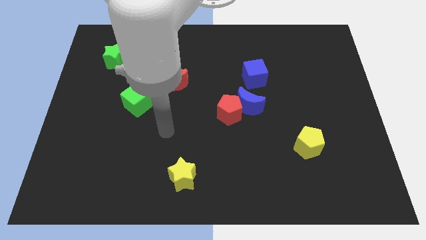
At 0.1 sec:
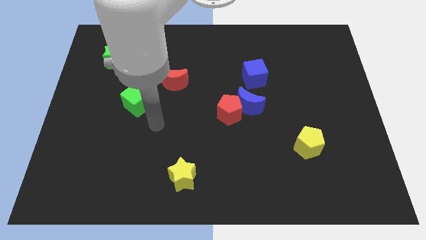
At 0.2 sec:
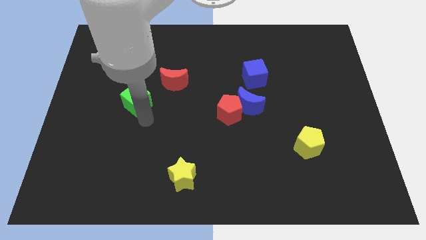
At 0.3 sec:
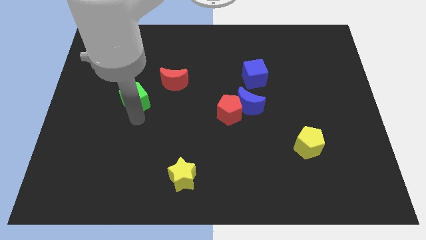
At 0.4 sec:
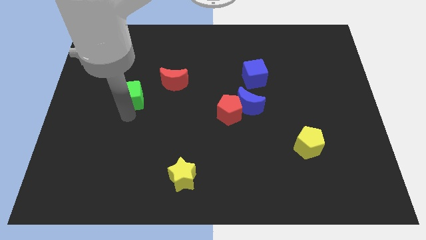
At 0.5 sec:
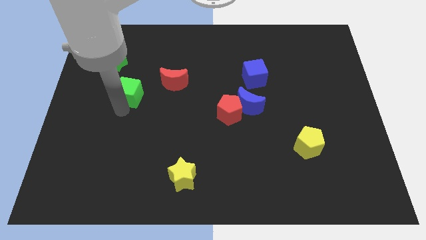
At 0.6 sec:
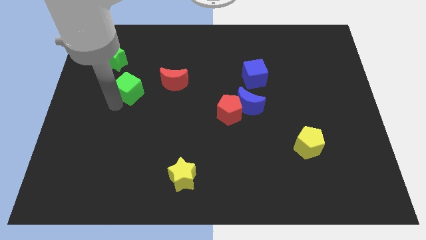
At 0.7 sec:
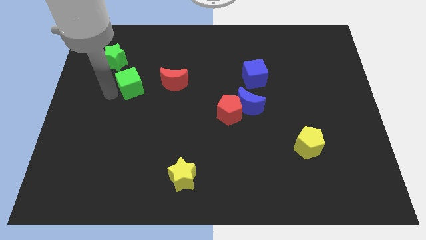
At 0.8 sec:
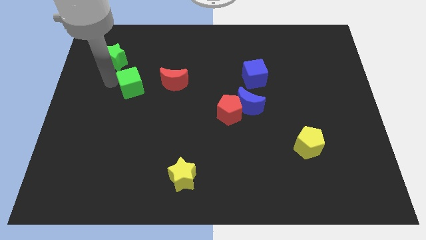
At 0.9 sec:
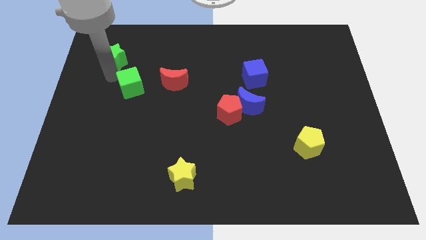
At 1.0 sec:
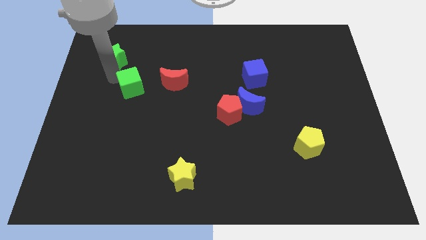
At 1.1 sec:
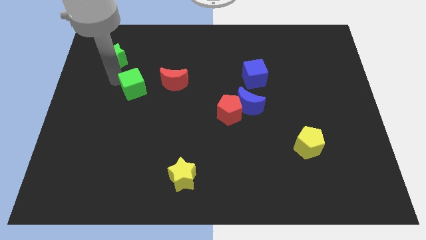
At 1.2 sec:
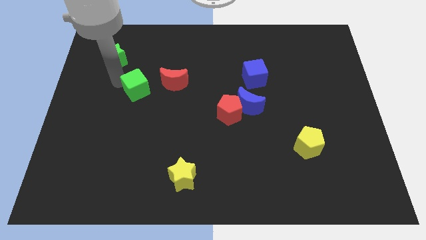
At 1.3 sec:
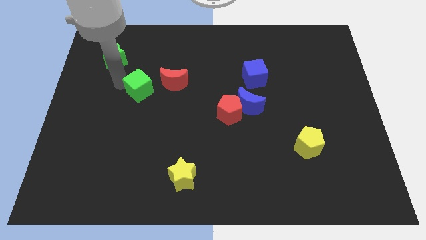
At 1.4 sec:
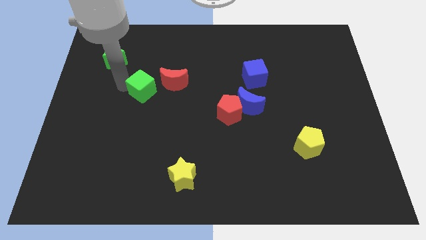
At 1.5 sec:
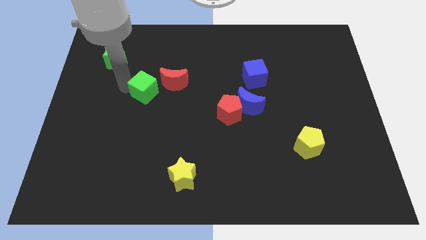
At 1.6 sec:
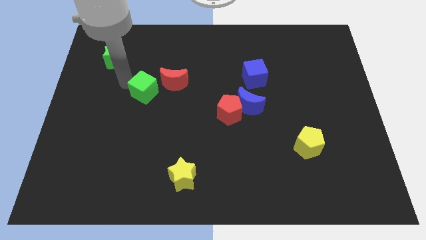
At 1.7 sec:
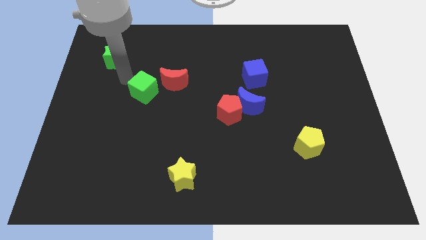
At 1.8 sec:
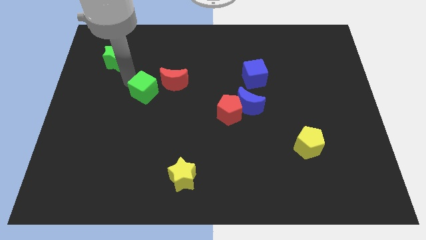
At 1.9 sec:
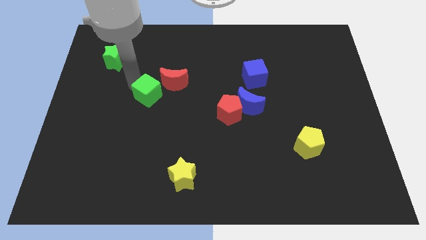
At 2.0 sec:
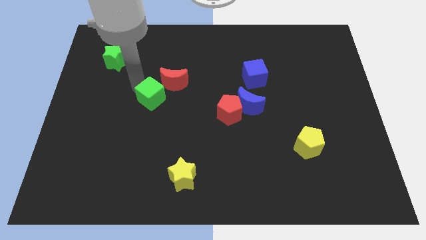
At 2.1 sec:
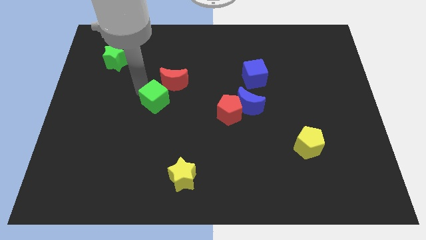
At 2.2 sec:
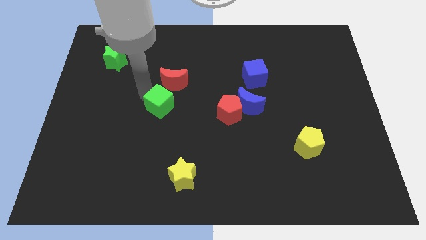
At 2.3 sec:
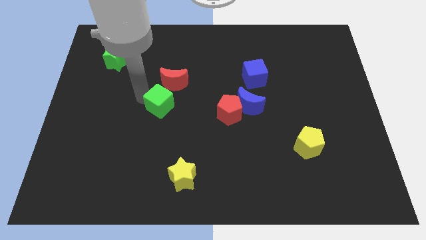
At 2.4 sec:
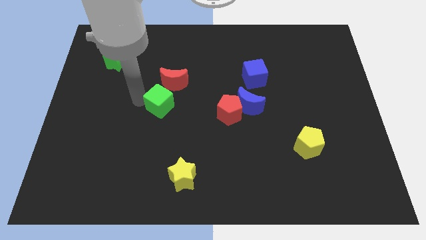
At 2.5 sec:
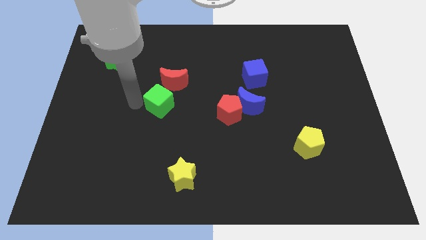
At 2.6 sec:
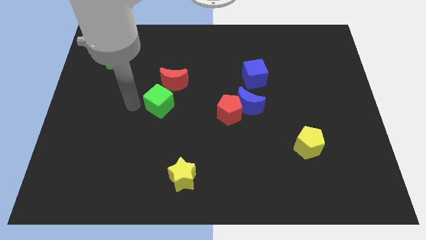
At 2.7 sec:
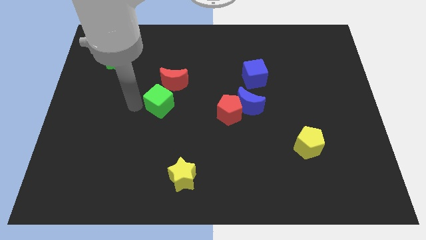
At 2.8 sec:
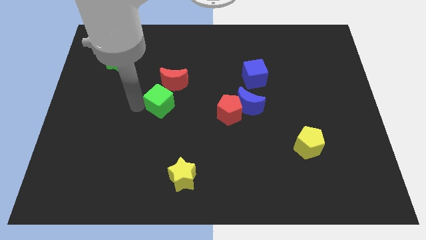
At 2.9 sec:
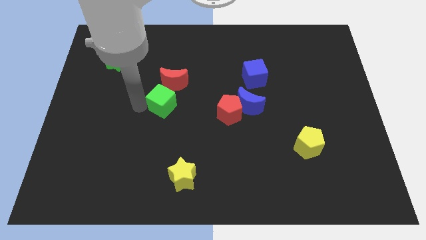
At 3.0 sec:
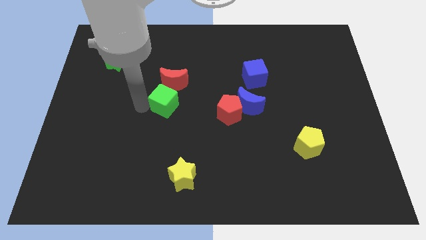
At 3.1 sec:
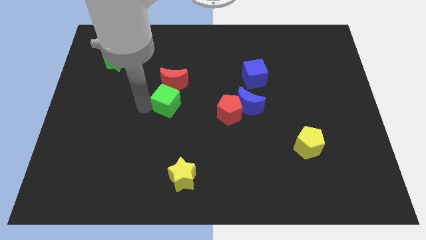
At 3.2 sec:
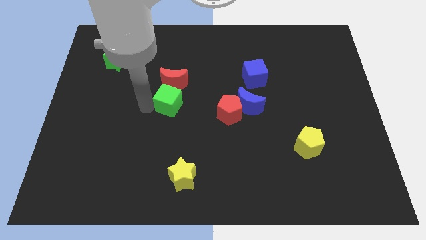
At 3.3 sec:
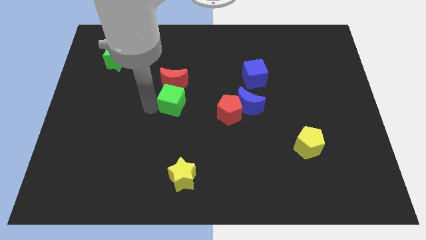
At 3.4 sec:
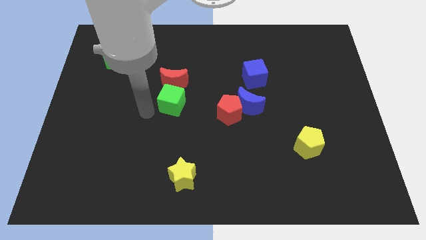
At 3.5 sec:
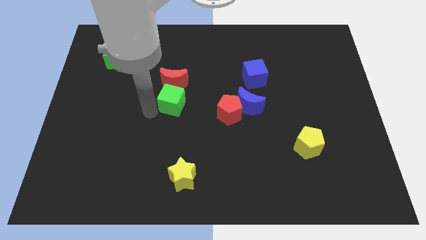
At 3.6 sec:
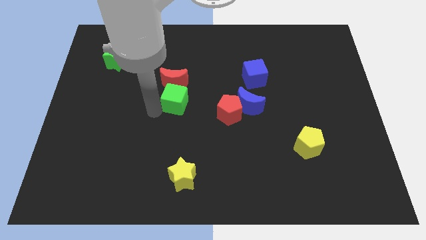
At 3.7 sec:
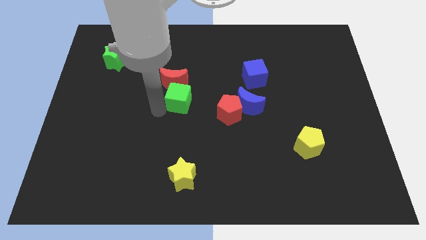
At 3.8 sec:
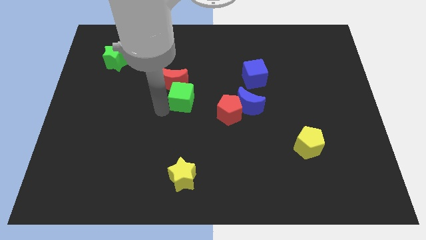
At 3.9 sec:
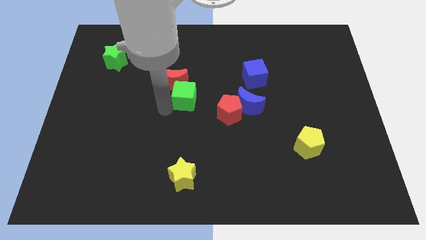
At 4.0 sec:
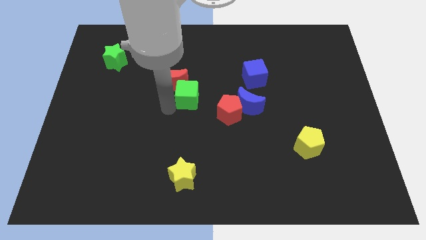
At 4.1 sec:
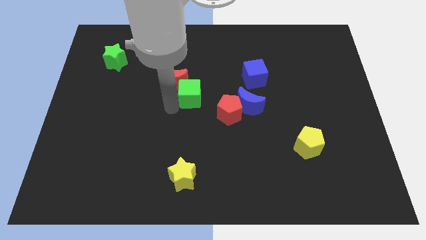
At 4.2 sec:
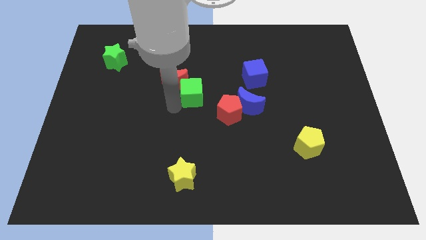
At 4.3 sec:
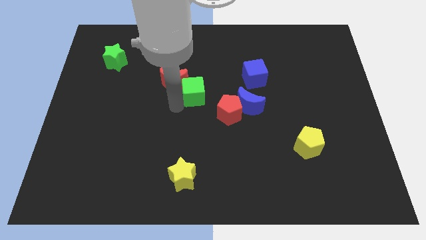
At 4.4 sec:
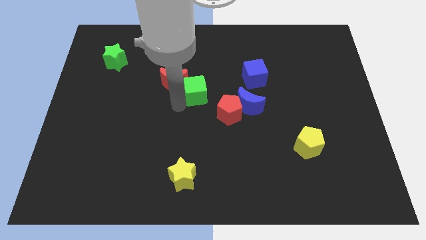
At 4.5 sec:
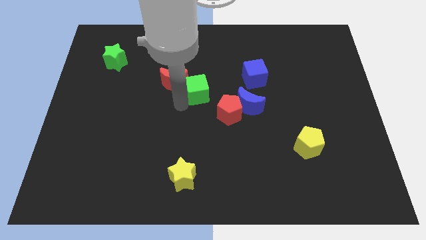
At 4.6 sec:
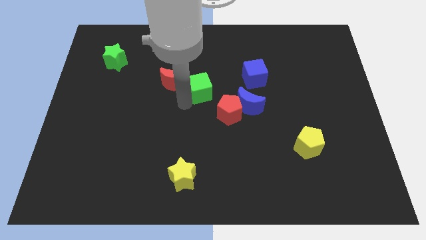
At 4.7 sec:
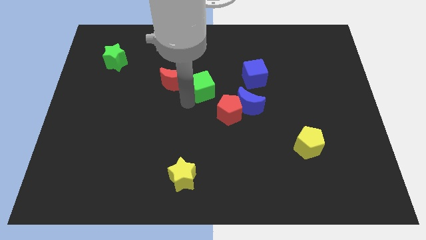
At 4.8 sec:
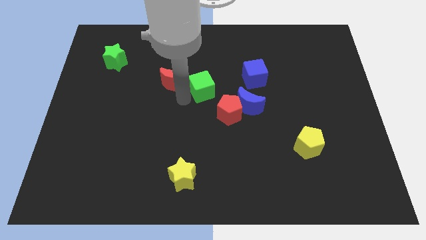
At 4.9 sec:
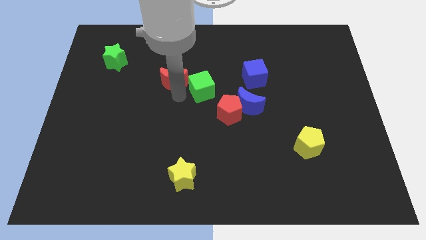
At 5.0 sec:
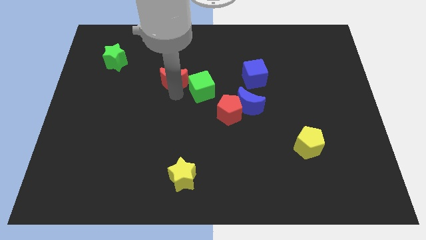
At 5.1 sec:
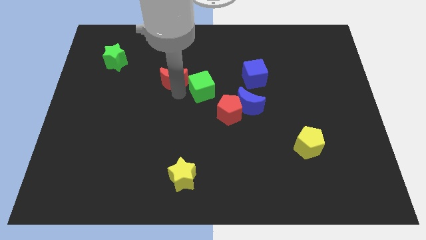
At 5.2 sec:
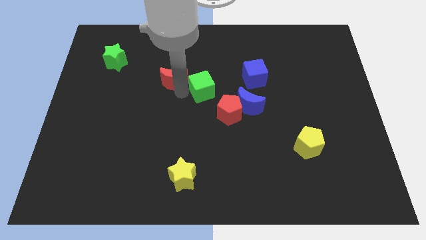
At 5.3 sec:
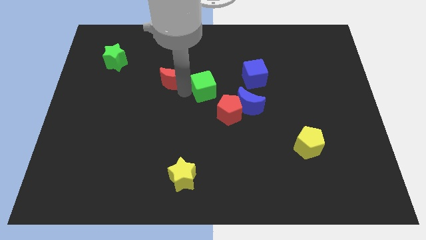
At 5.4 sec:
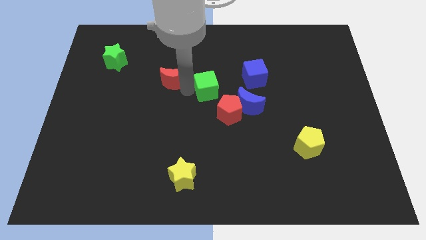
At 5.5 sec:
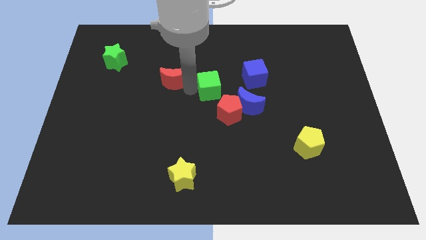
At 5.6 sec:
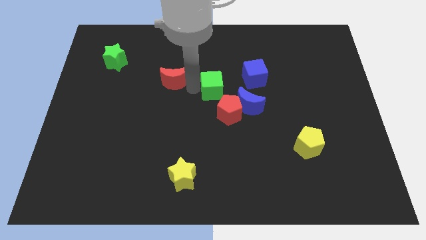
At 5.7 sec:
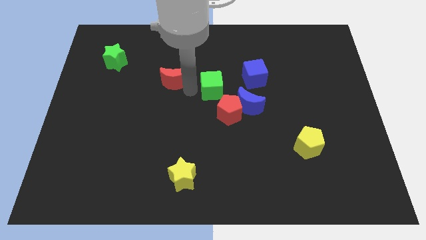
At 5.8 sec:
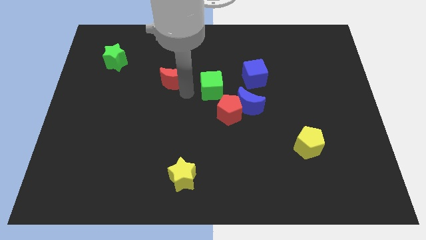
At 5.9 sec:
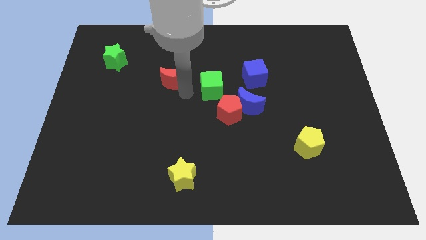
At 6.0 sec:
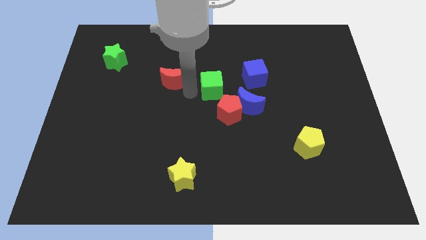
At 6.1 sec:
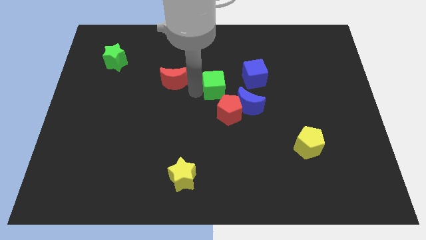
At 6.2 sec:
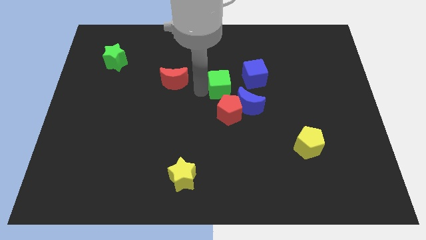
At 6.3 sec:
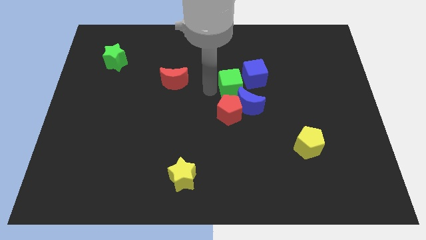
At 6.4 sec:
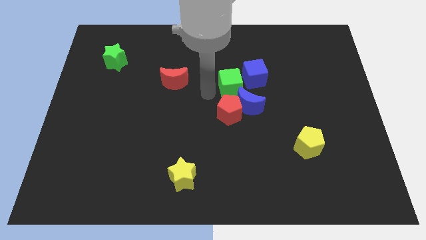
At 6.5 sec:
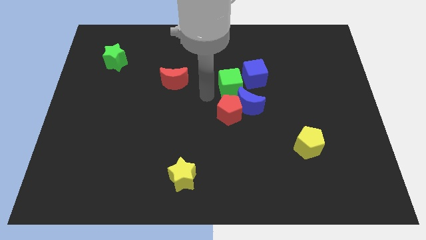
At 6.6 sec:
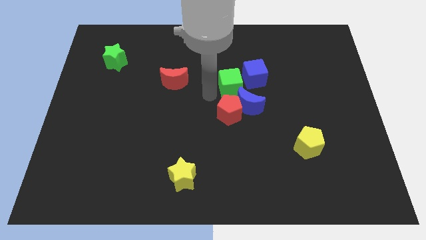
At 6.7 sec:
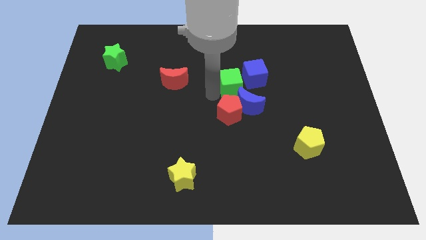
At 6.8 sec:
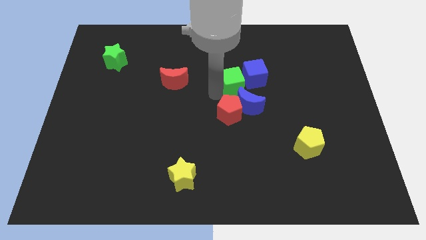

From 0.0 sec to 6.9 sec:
push the green cube next to the blue cube
